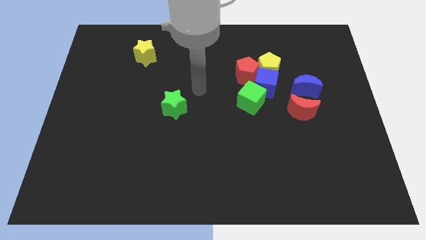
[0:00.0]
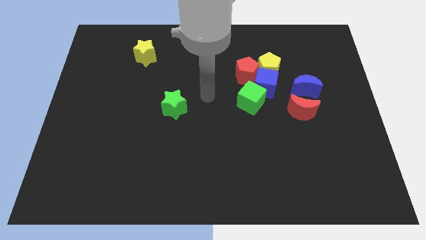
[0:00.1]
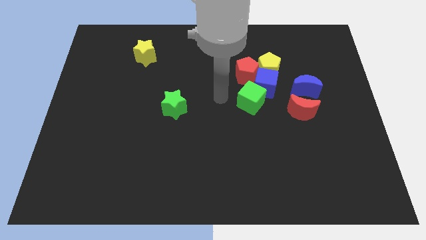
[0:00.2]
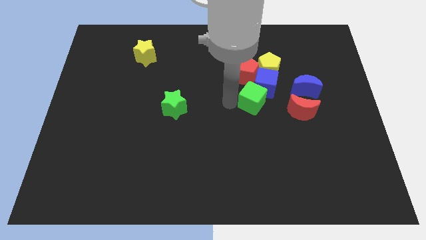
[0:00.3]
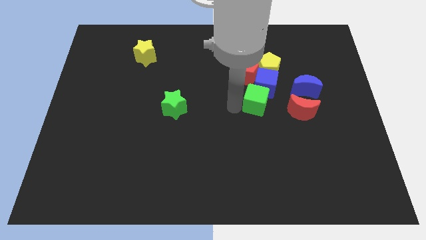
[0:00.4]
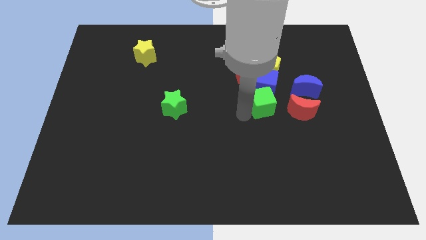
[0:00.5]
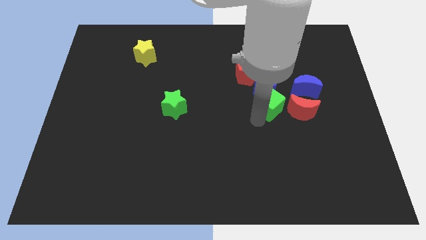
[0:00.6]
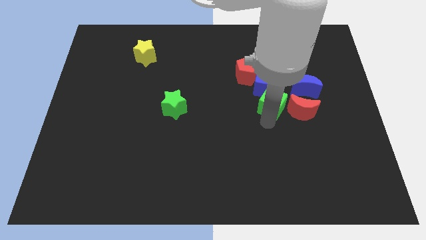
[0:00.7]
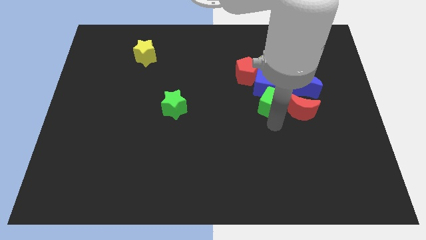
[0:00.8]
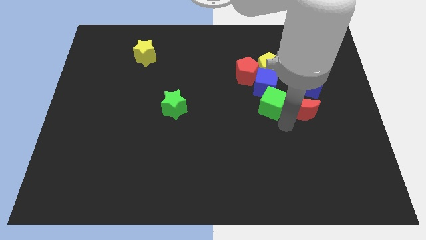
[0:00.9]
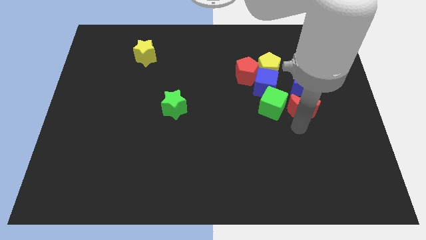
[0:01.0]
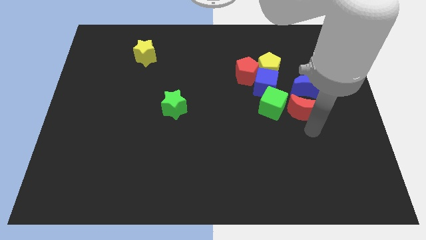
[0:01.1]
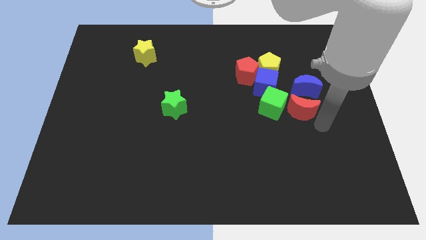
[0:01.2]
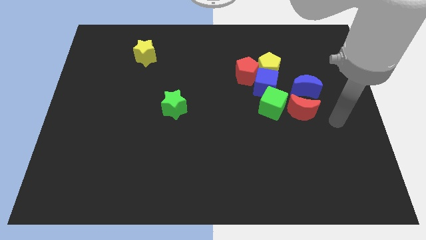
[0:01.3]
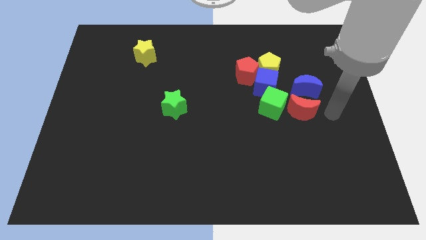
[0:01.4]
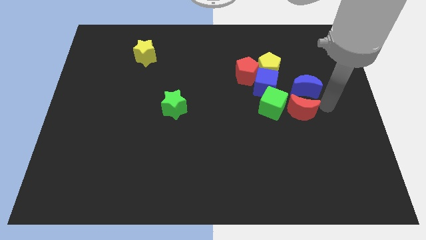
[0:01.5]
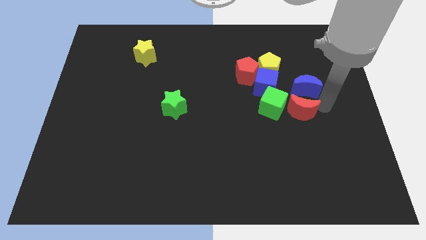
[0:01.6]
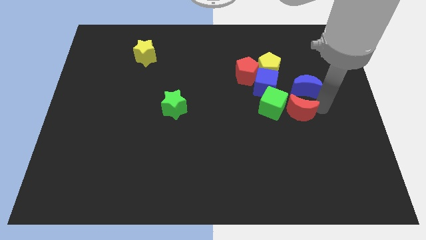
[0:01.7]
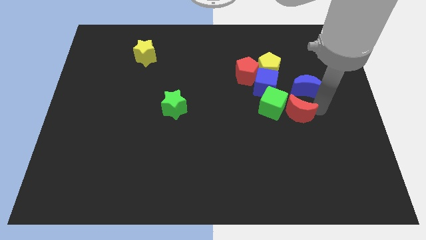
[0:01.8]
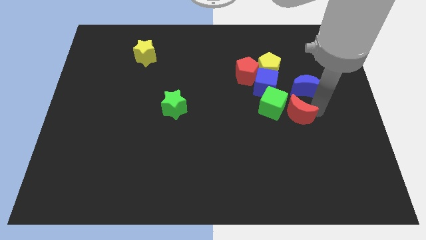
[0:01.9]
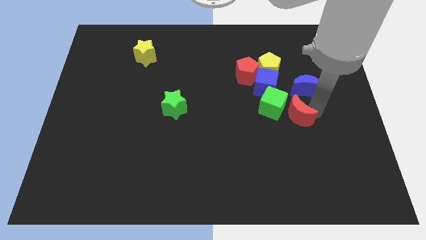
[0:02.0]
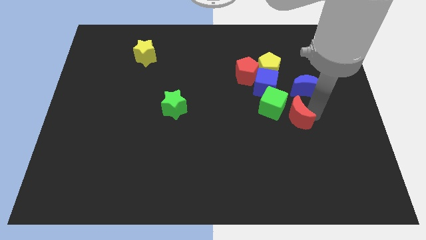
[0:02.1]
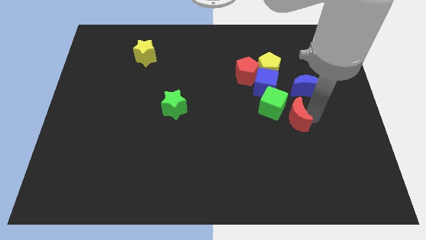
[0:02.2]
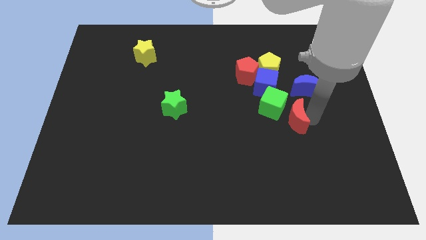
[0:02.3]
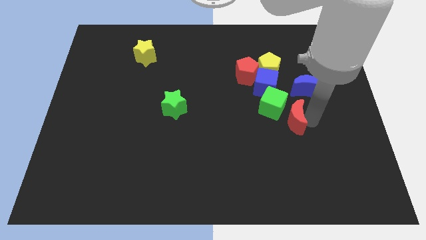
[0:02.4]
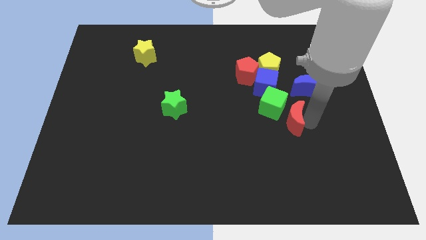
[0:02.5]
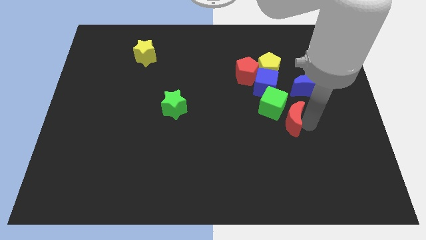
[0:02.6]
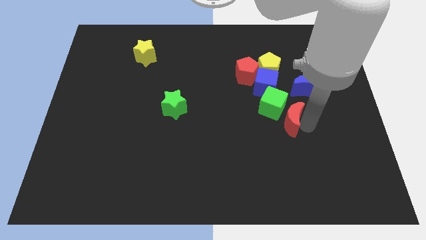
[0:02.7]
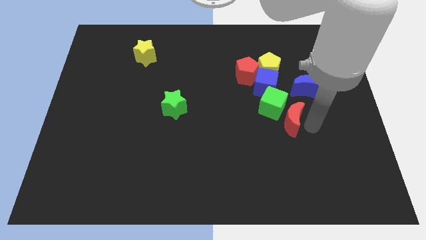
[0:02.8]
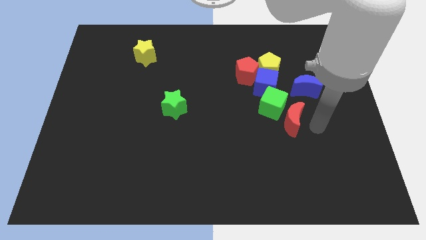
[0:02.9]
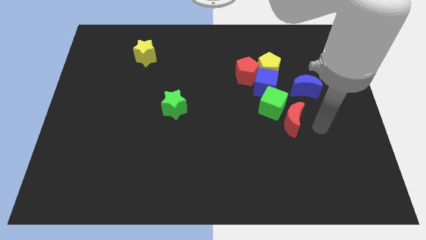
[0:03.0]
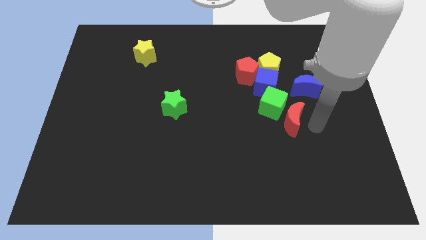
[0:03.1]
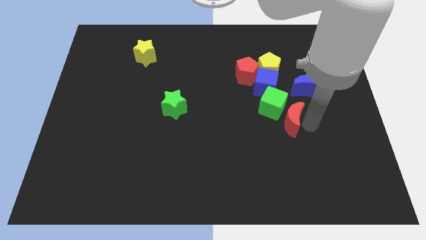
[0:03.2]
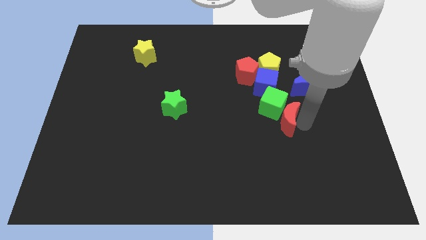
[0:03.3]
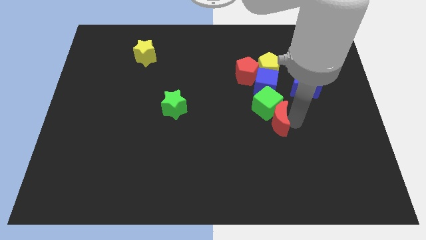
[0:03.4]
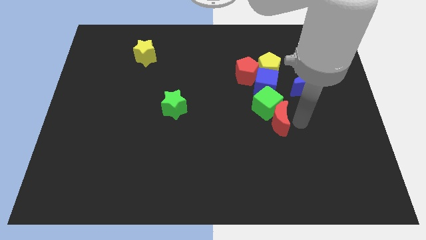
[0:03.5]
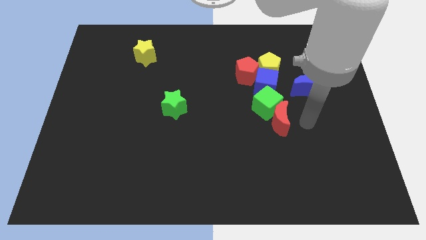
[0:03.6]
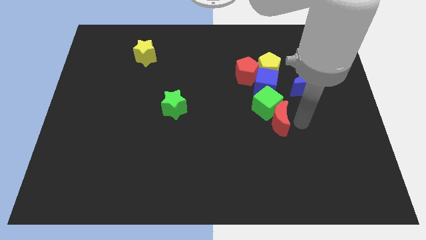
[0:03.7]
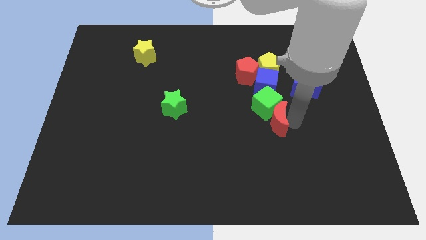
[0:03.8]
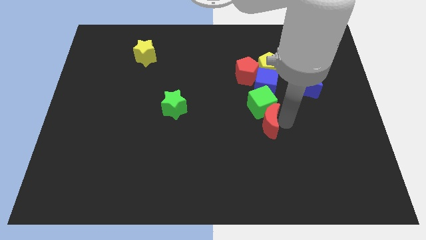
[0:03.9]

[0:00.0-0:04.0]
slightly push the red moon to the left

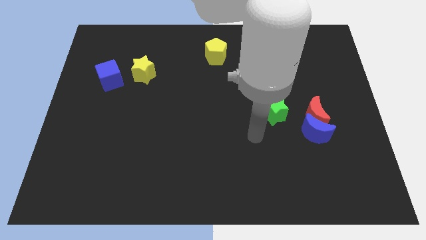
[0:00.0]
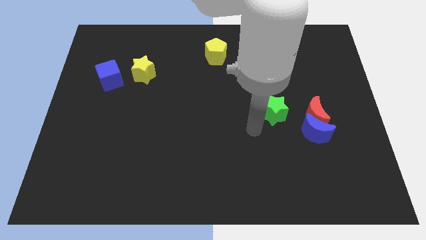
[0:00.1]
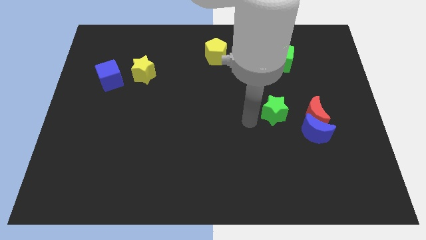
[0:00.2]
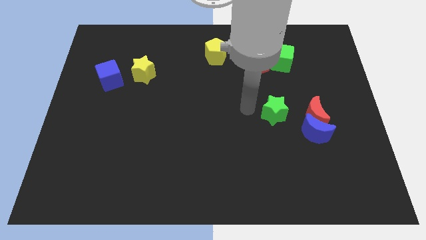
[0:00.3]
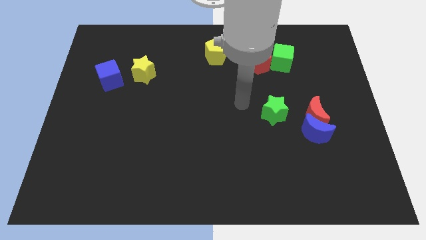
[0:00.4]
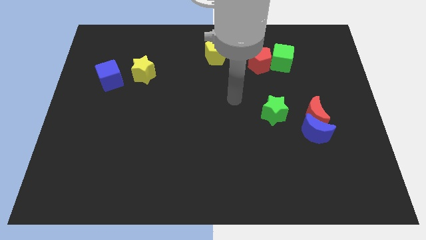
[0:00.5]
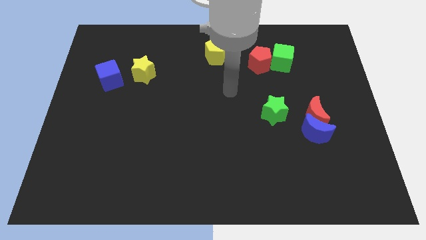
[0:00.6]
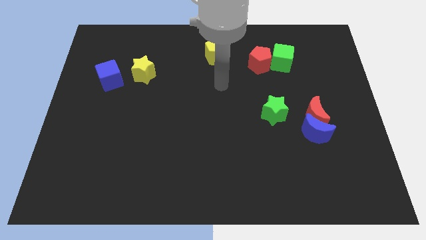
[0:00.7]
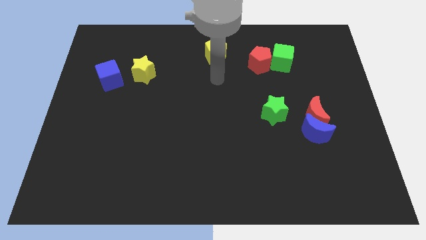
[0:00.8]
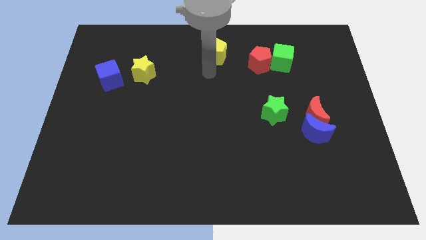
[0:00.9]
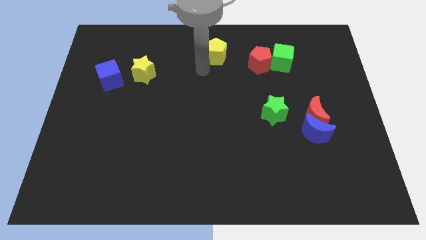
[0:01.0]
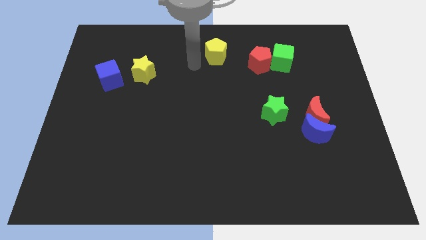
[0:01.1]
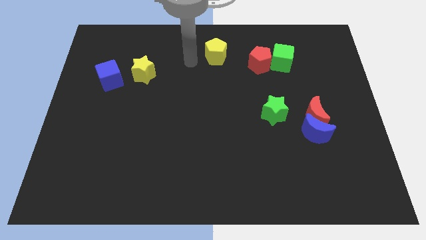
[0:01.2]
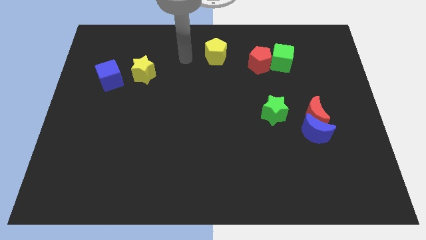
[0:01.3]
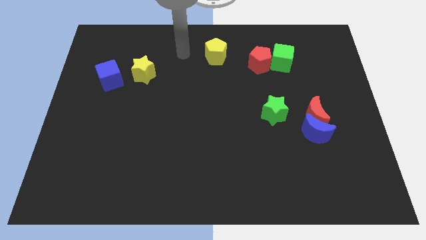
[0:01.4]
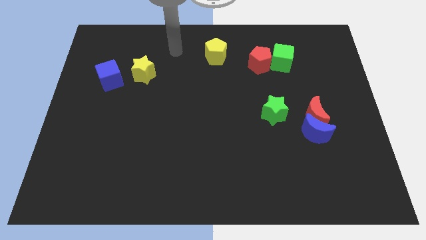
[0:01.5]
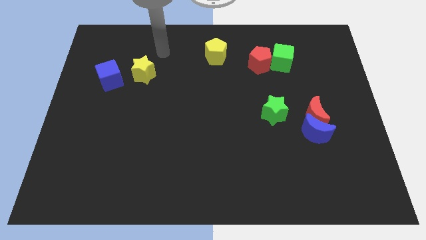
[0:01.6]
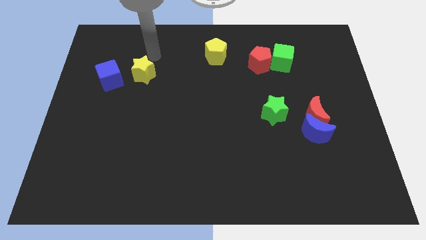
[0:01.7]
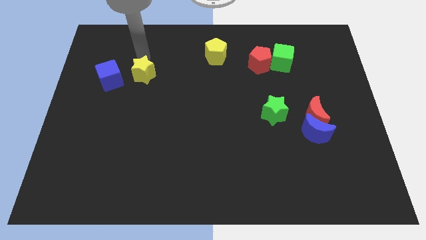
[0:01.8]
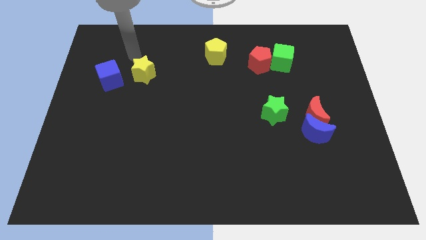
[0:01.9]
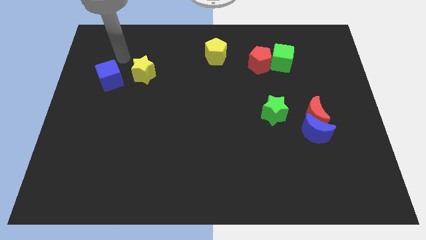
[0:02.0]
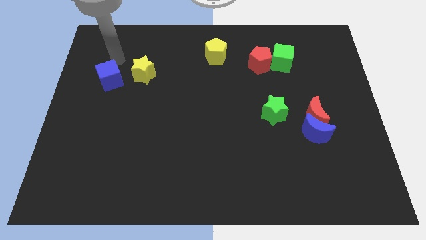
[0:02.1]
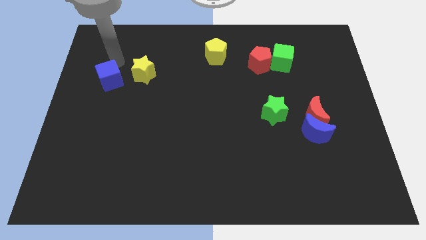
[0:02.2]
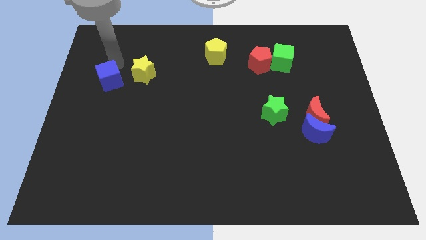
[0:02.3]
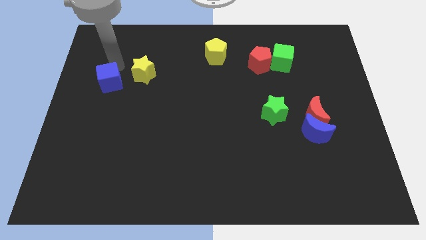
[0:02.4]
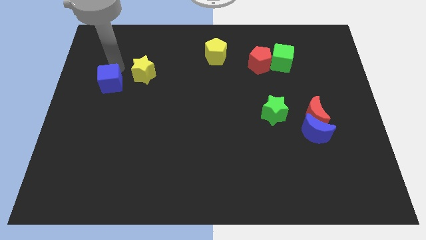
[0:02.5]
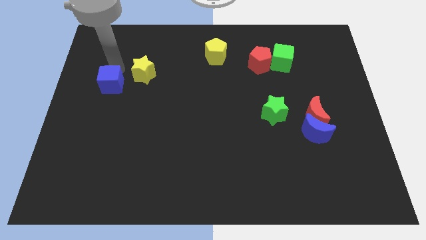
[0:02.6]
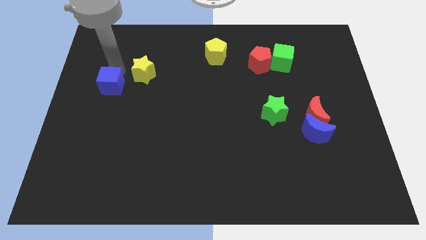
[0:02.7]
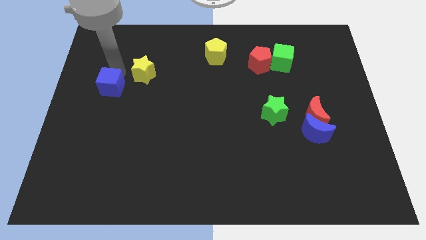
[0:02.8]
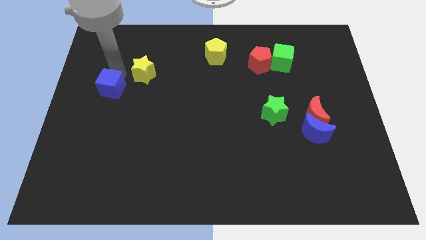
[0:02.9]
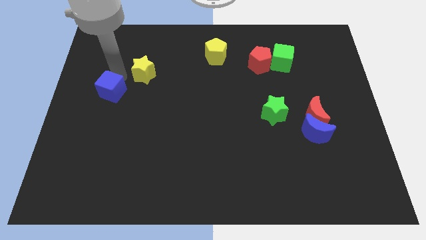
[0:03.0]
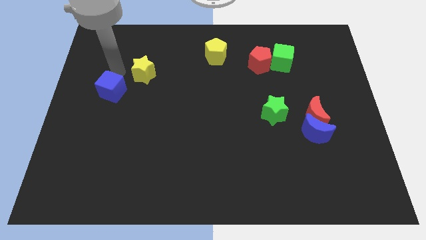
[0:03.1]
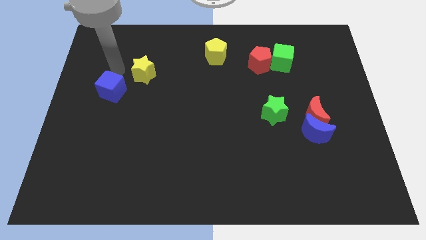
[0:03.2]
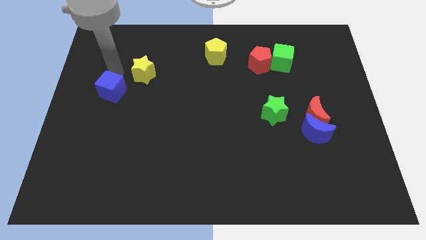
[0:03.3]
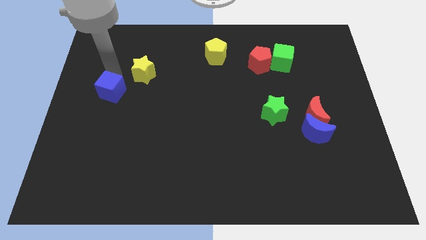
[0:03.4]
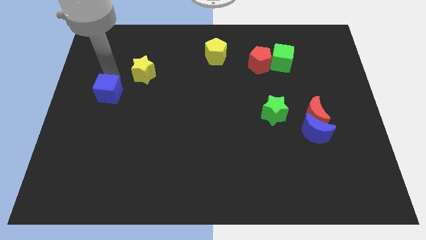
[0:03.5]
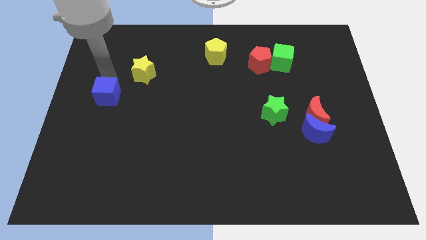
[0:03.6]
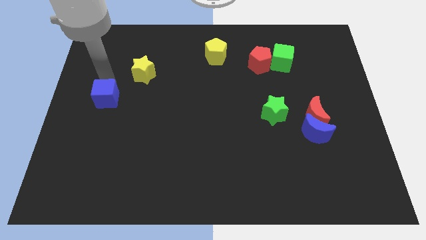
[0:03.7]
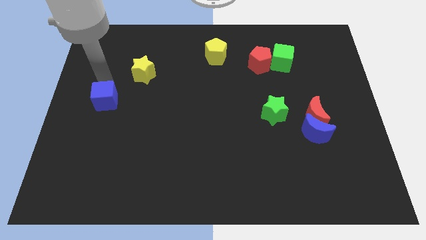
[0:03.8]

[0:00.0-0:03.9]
slide the blue cube a little bit downwards
